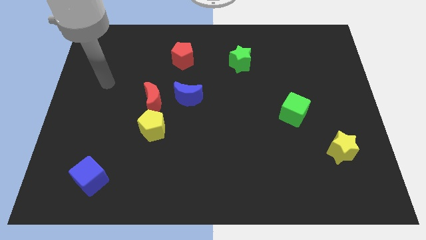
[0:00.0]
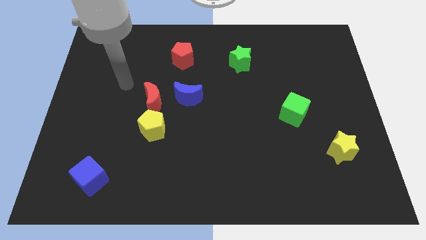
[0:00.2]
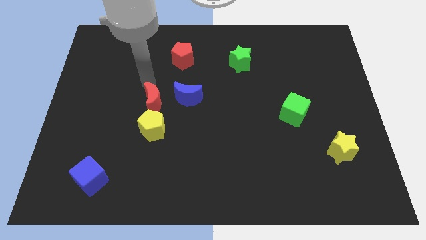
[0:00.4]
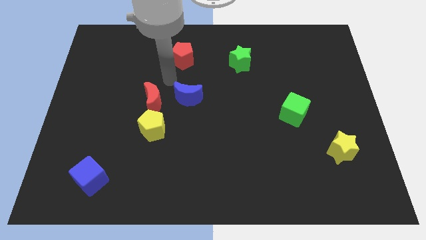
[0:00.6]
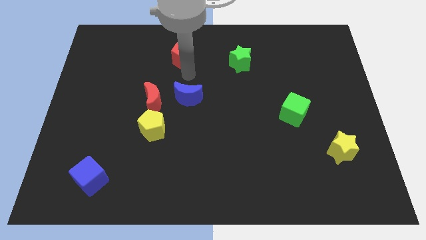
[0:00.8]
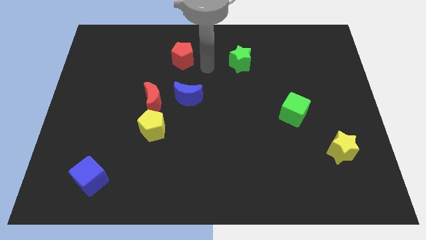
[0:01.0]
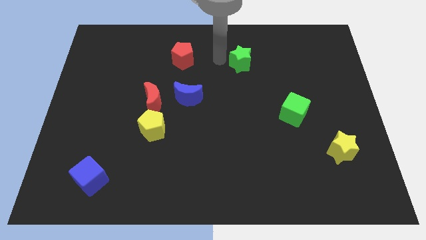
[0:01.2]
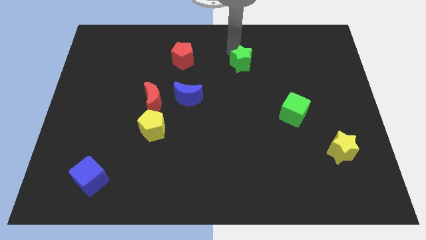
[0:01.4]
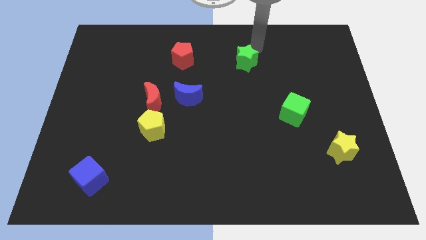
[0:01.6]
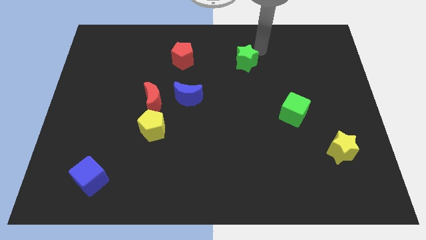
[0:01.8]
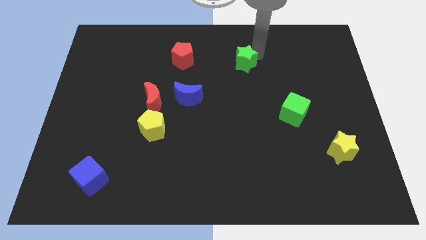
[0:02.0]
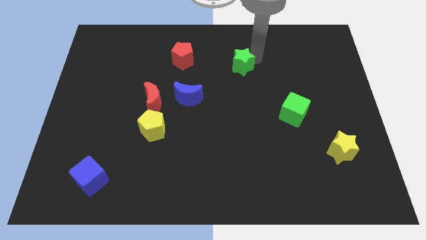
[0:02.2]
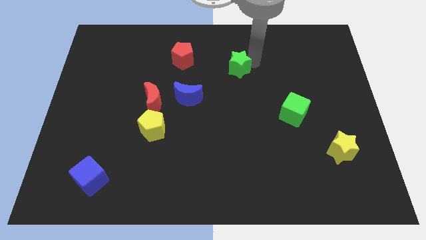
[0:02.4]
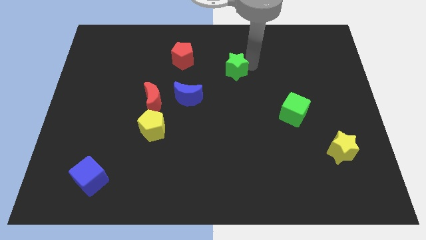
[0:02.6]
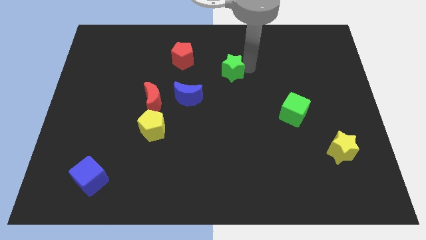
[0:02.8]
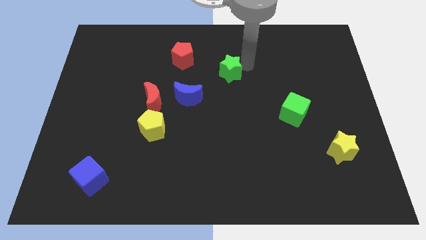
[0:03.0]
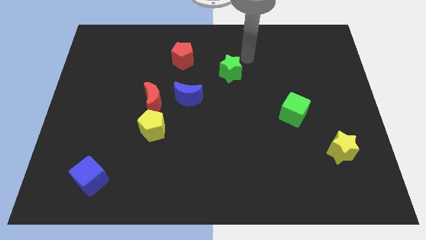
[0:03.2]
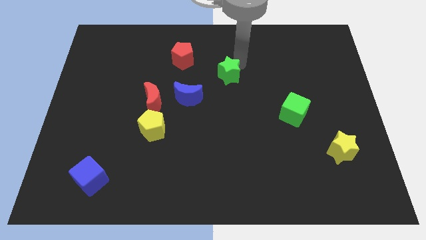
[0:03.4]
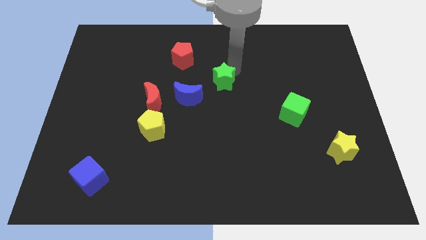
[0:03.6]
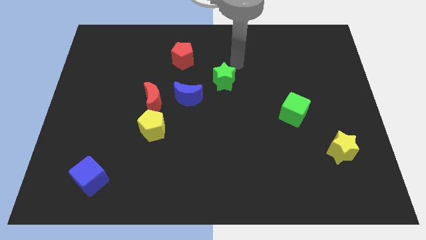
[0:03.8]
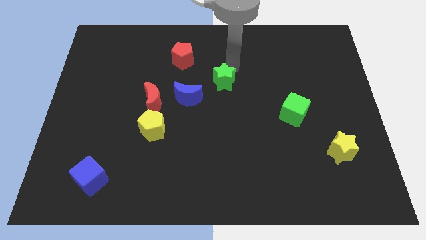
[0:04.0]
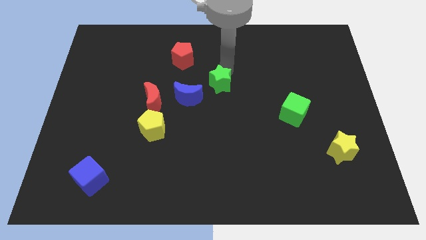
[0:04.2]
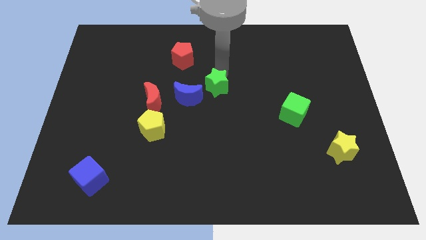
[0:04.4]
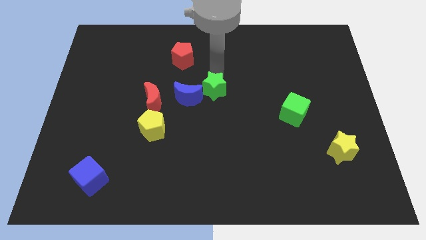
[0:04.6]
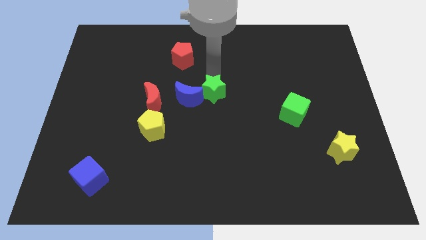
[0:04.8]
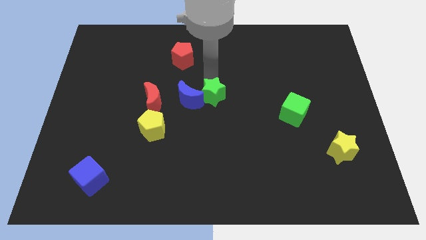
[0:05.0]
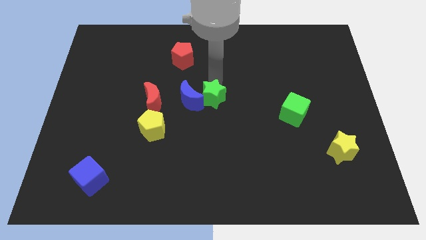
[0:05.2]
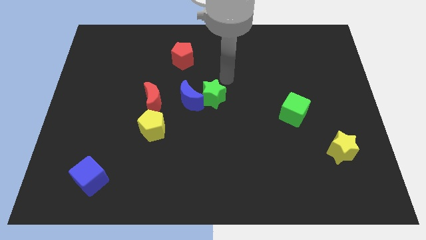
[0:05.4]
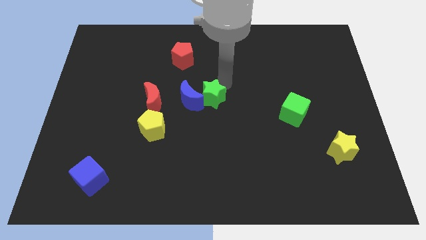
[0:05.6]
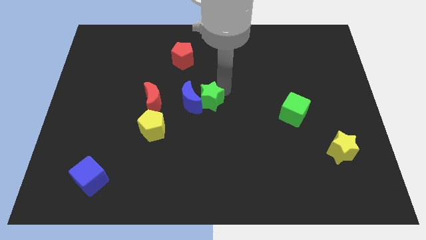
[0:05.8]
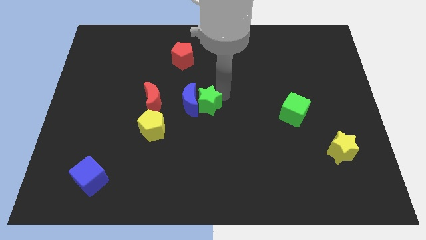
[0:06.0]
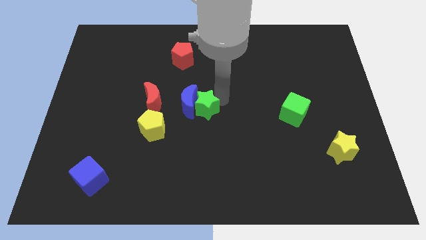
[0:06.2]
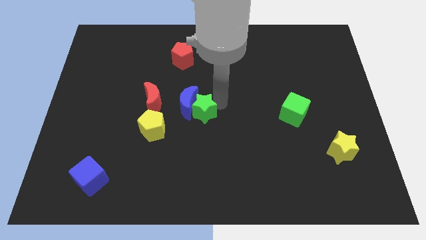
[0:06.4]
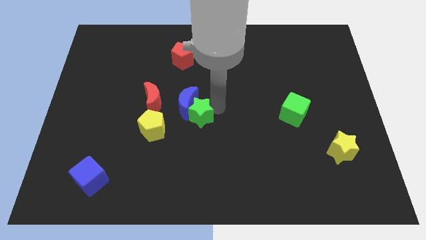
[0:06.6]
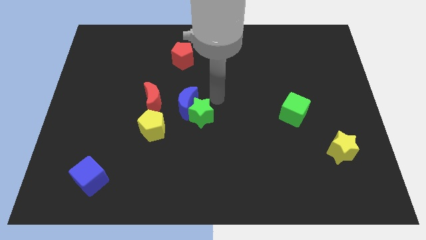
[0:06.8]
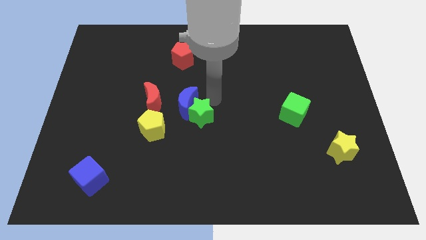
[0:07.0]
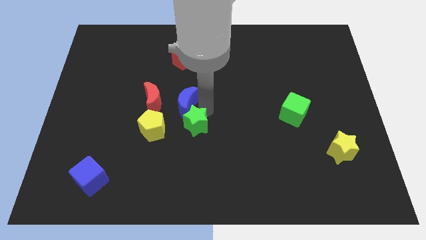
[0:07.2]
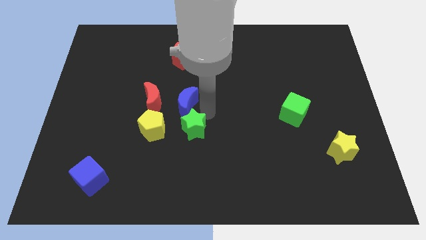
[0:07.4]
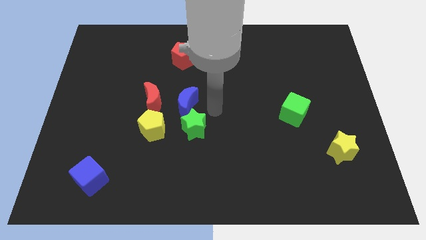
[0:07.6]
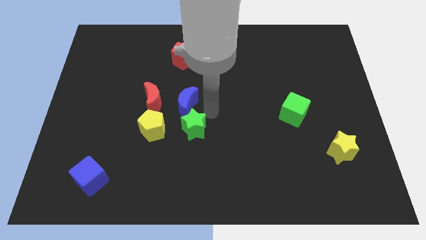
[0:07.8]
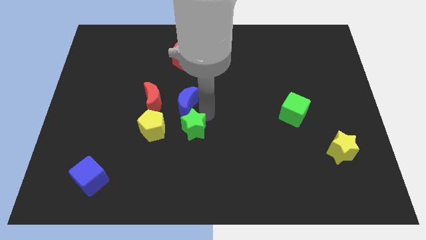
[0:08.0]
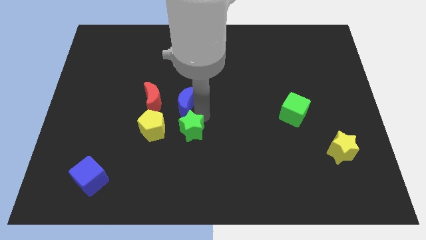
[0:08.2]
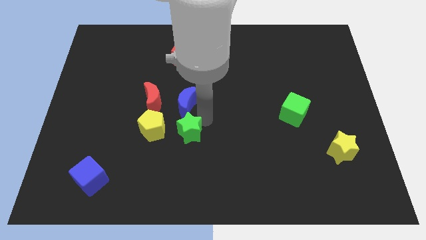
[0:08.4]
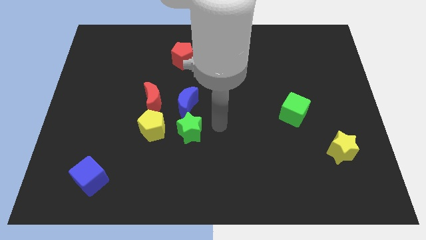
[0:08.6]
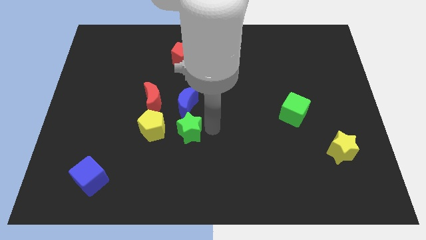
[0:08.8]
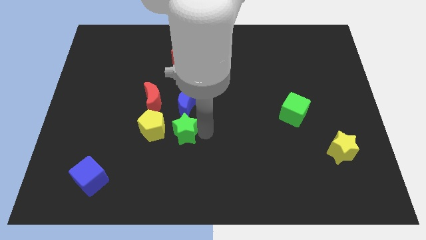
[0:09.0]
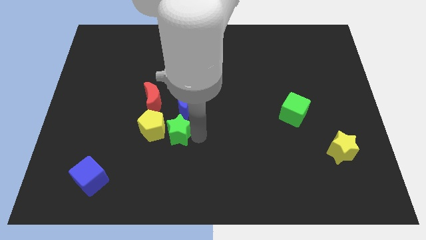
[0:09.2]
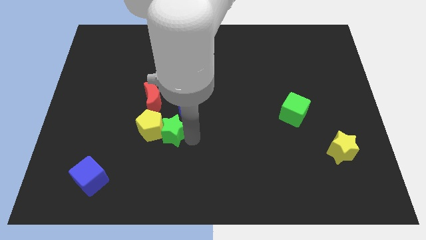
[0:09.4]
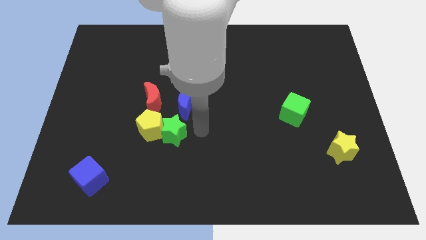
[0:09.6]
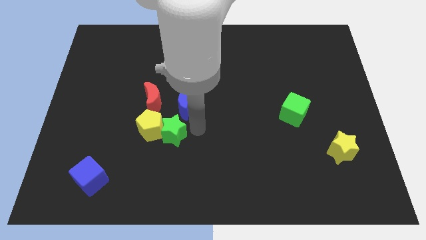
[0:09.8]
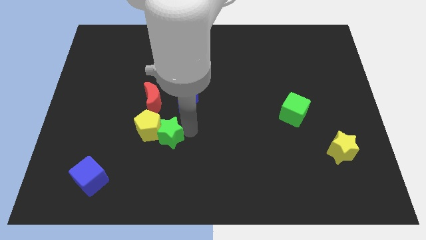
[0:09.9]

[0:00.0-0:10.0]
slide the green star to the bottom side of the red moon
